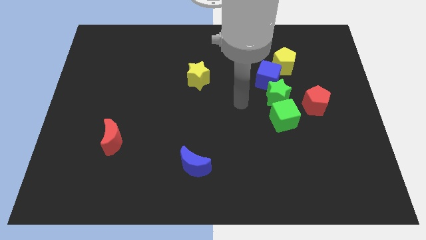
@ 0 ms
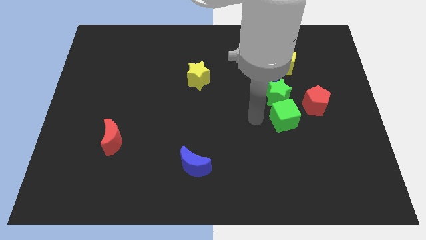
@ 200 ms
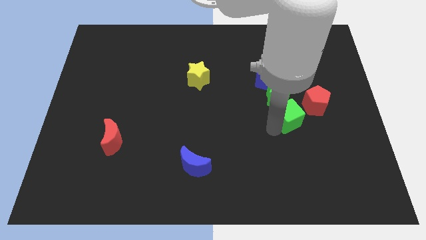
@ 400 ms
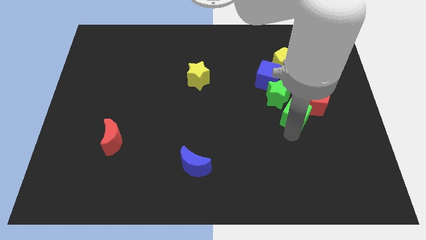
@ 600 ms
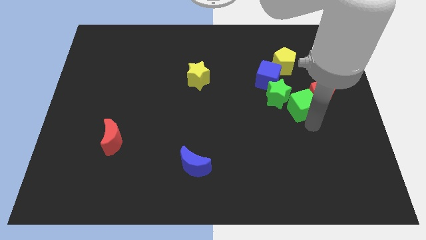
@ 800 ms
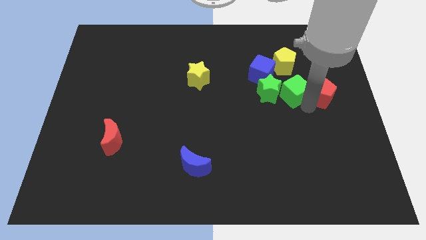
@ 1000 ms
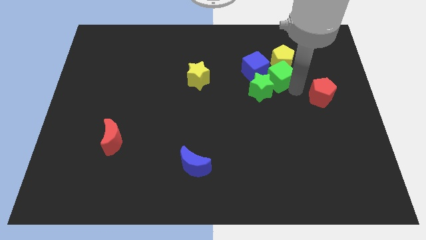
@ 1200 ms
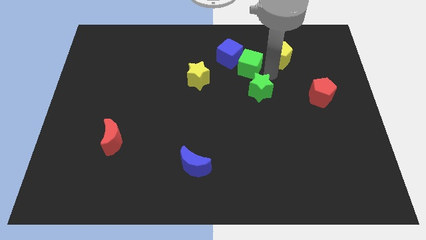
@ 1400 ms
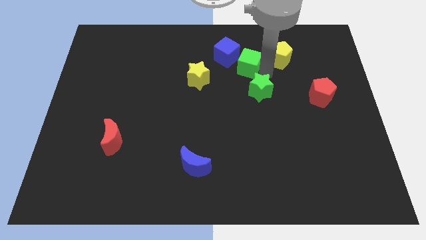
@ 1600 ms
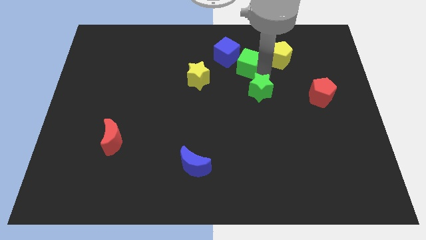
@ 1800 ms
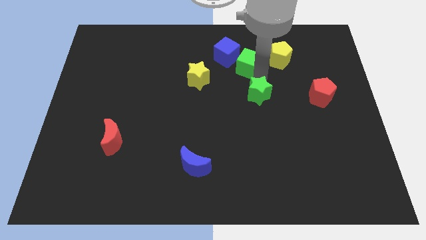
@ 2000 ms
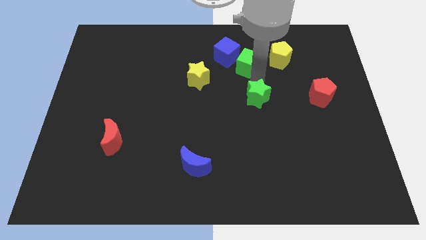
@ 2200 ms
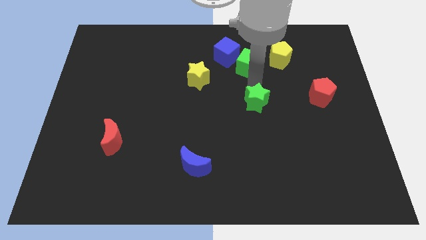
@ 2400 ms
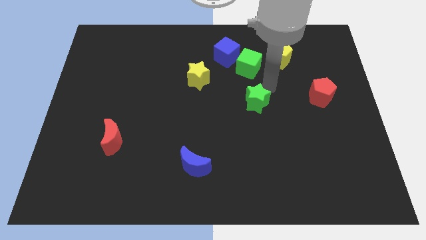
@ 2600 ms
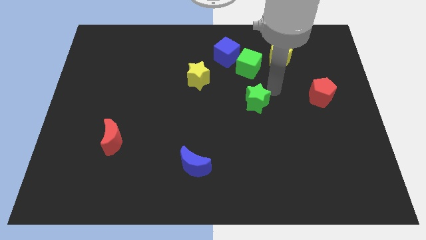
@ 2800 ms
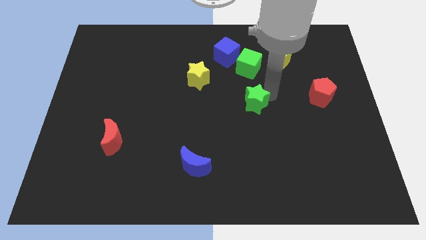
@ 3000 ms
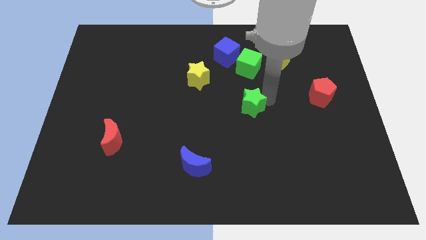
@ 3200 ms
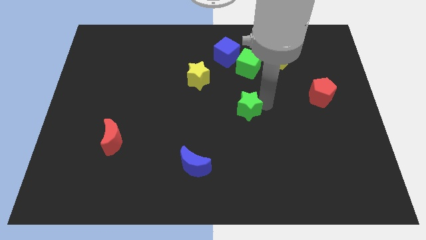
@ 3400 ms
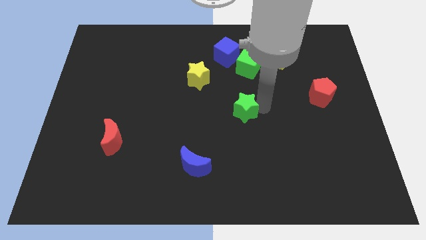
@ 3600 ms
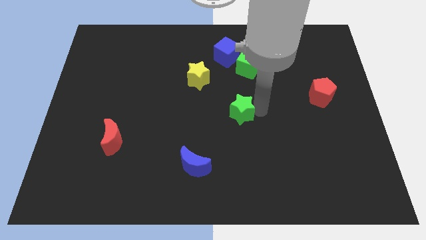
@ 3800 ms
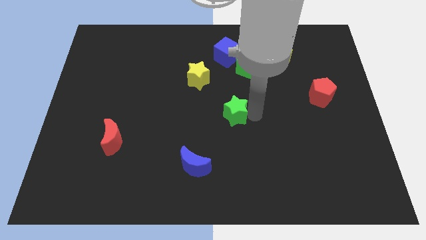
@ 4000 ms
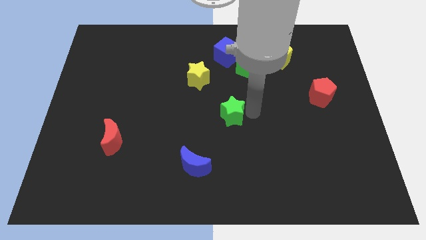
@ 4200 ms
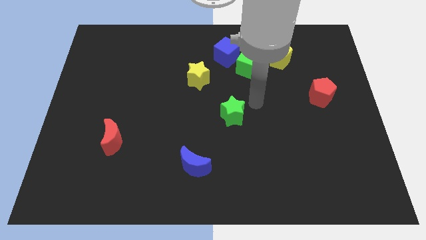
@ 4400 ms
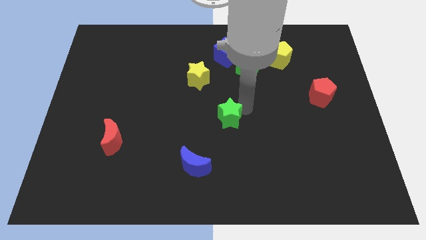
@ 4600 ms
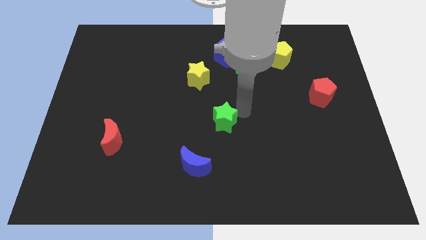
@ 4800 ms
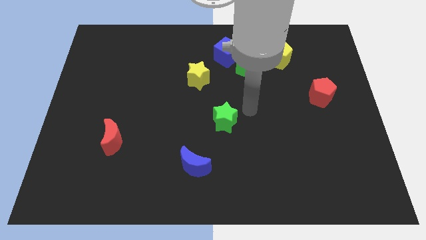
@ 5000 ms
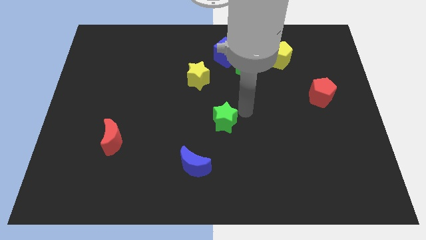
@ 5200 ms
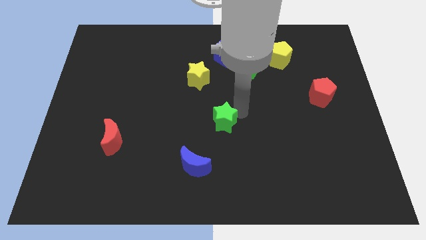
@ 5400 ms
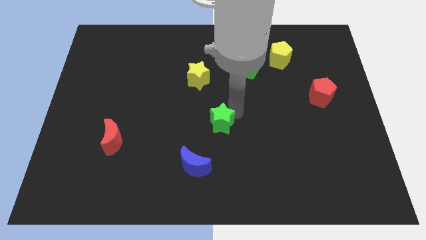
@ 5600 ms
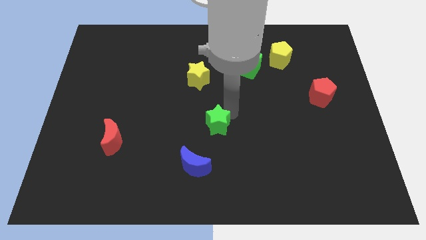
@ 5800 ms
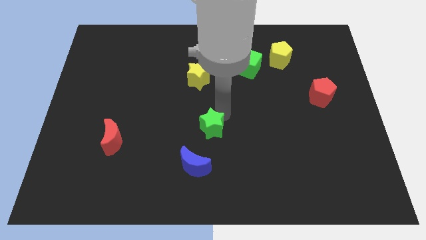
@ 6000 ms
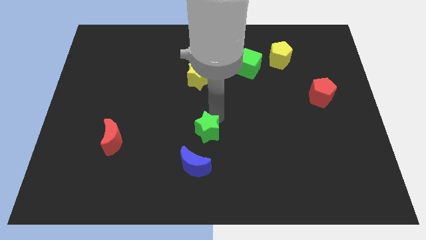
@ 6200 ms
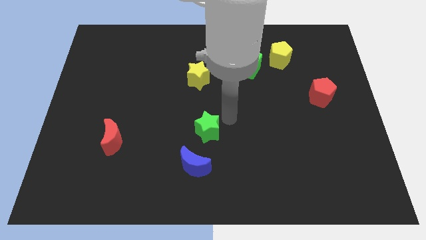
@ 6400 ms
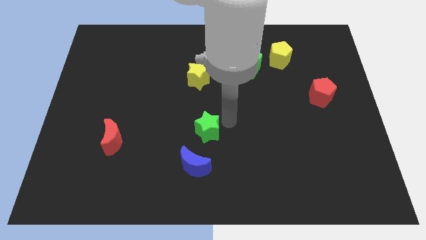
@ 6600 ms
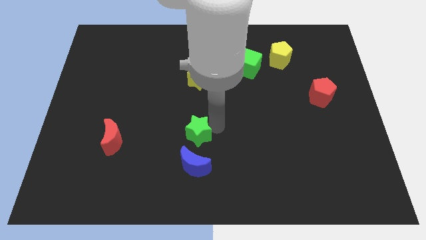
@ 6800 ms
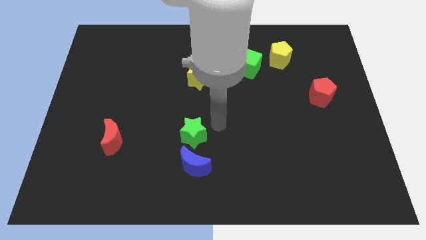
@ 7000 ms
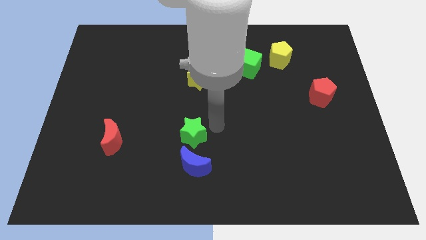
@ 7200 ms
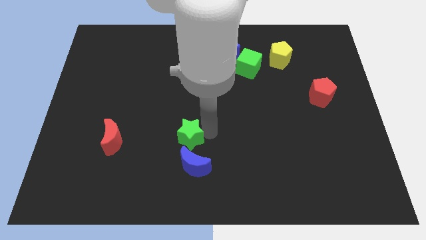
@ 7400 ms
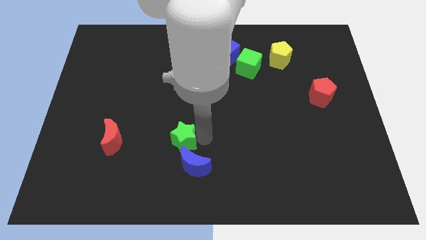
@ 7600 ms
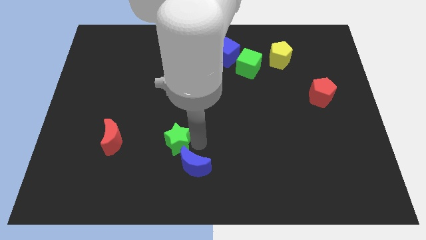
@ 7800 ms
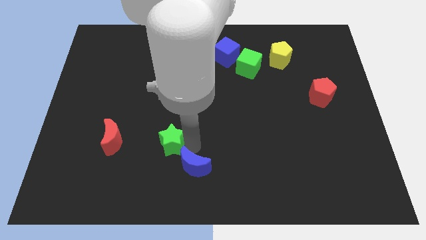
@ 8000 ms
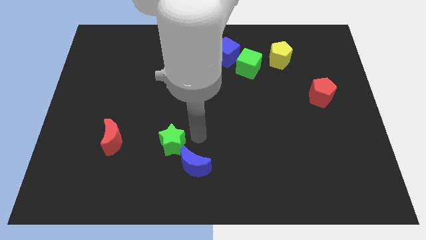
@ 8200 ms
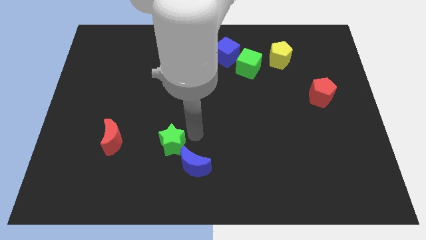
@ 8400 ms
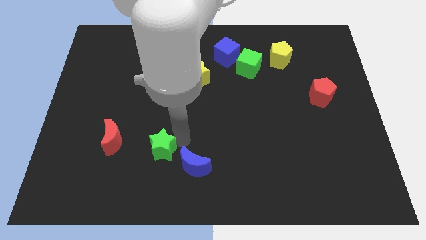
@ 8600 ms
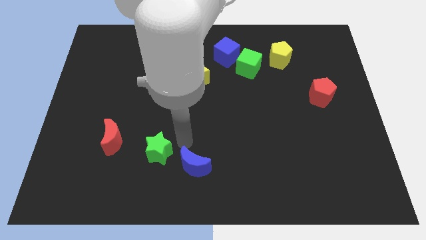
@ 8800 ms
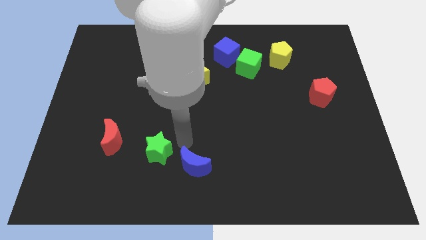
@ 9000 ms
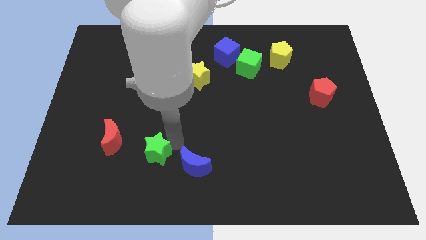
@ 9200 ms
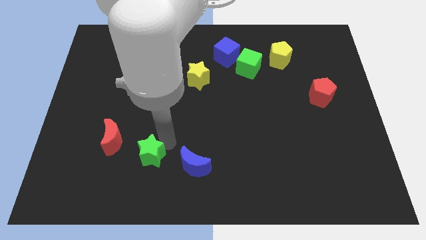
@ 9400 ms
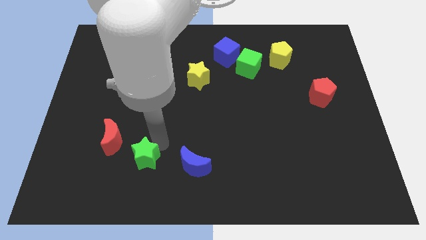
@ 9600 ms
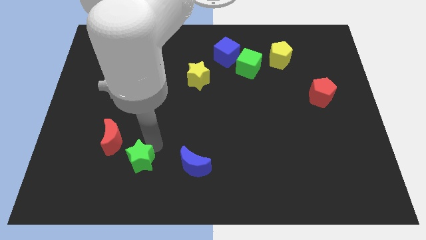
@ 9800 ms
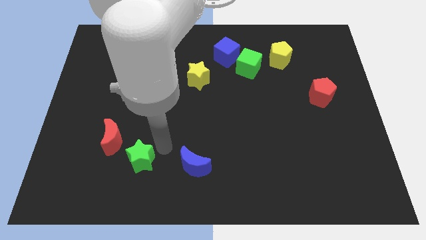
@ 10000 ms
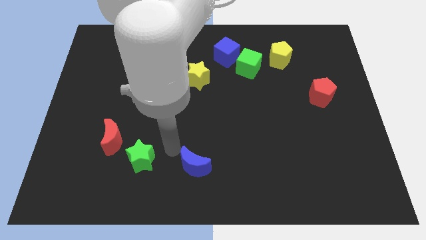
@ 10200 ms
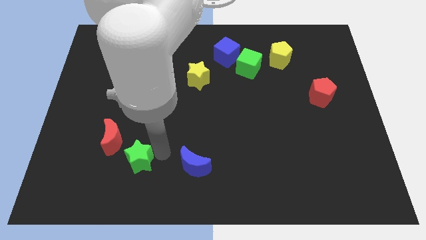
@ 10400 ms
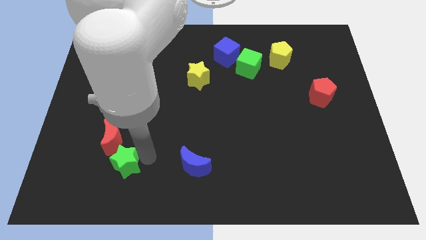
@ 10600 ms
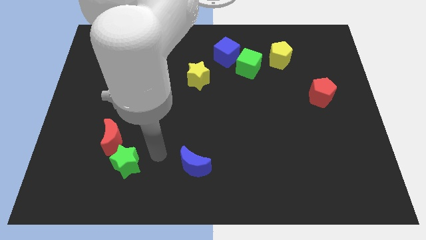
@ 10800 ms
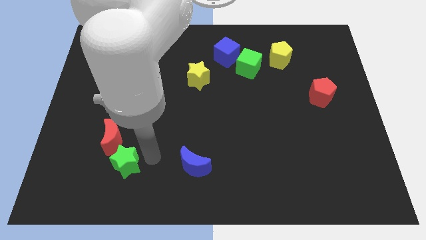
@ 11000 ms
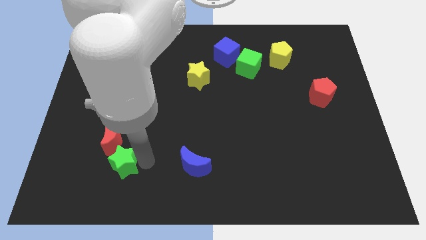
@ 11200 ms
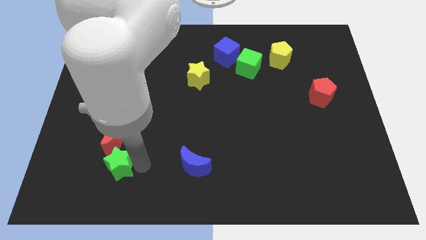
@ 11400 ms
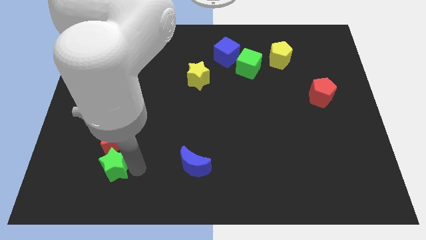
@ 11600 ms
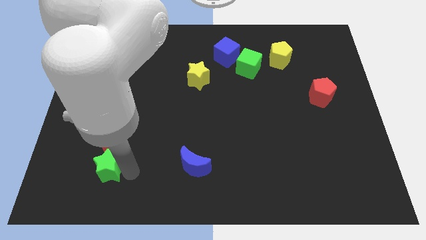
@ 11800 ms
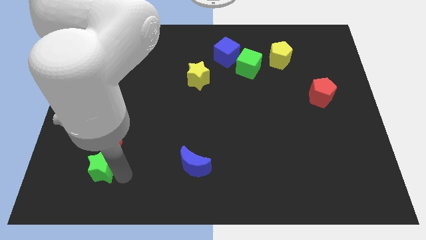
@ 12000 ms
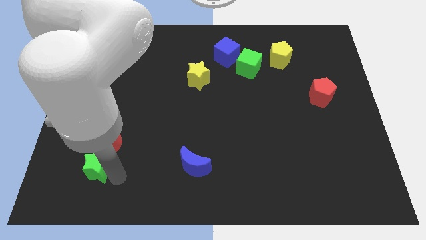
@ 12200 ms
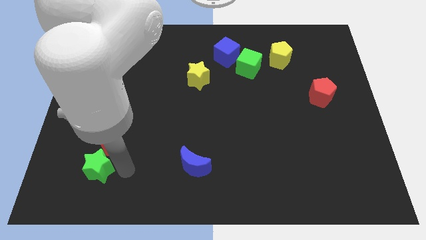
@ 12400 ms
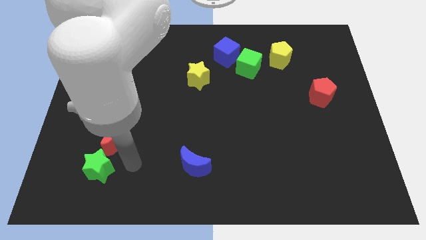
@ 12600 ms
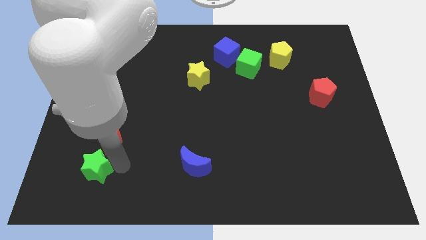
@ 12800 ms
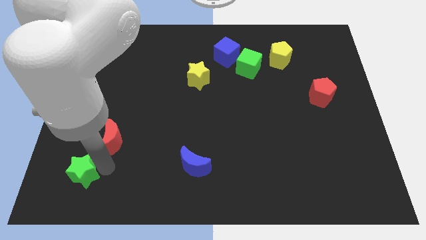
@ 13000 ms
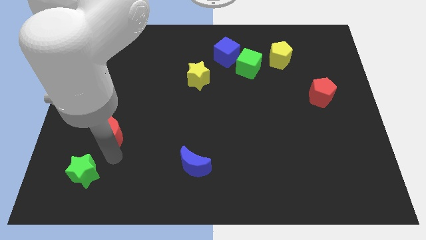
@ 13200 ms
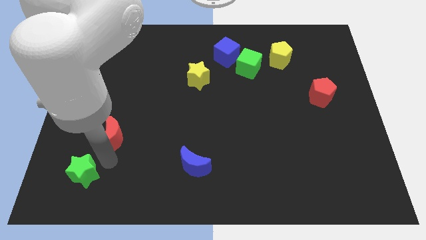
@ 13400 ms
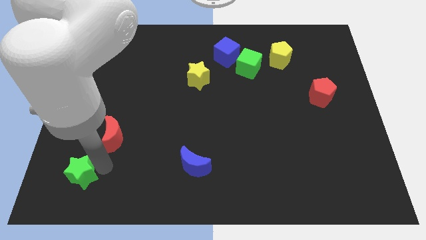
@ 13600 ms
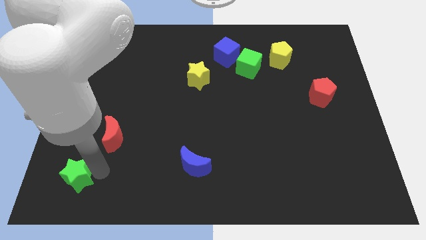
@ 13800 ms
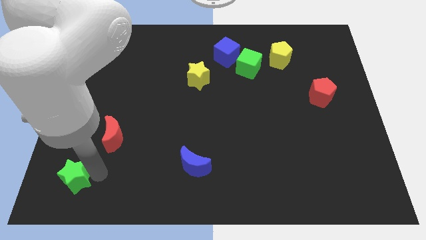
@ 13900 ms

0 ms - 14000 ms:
put the green star to the lower left corner
